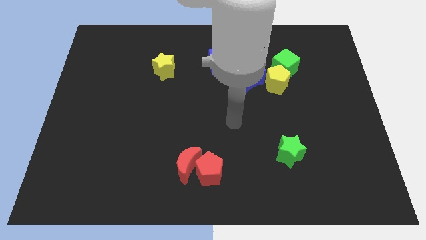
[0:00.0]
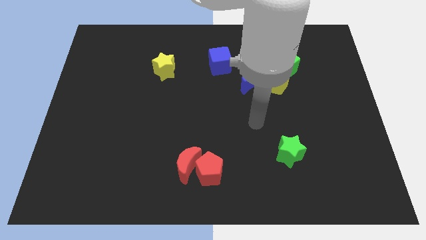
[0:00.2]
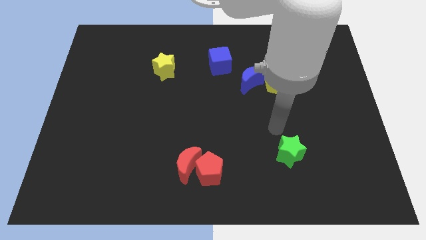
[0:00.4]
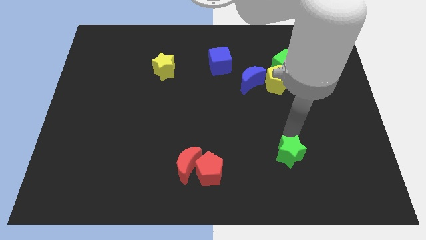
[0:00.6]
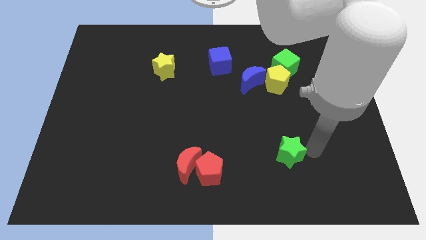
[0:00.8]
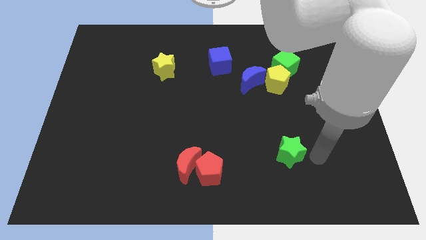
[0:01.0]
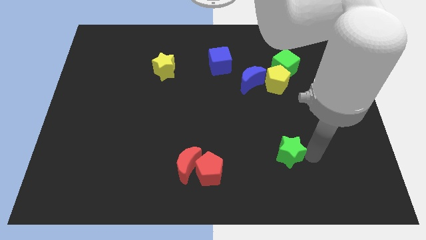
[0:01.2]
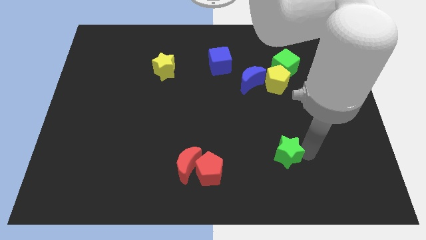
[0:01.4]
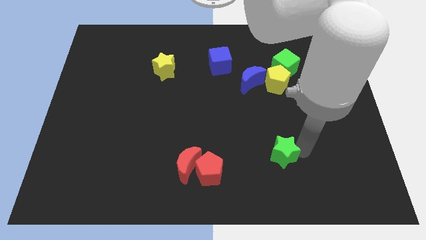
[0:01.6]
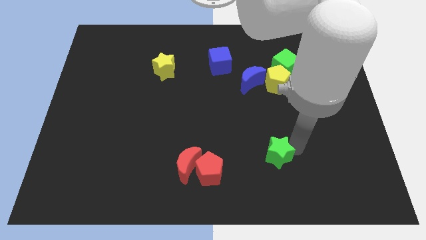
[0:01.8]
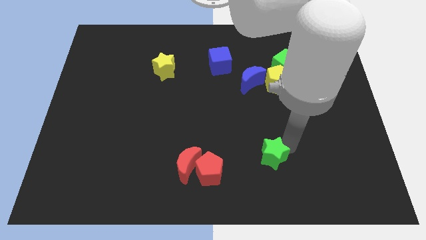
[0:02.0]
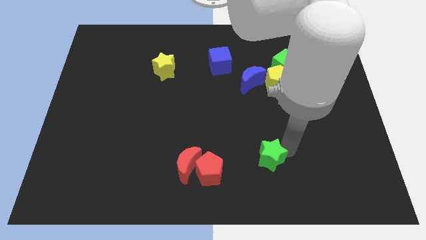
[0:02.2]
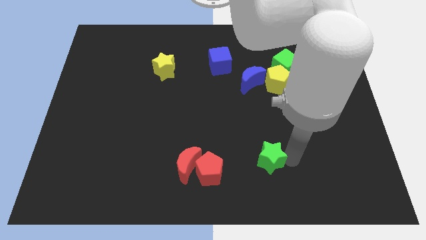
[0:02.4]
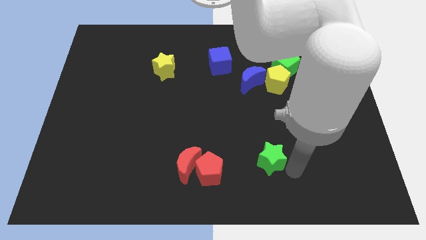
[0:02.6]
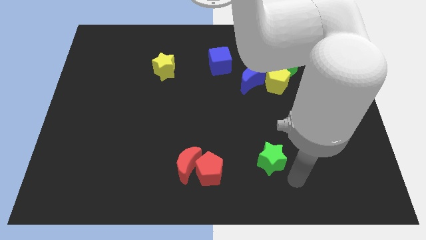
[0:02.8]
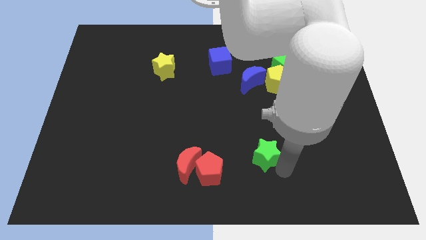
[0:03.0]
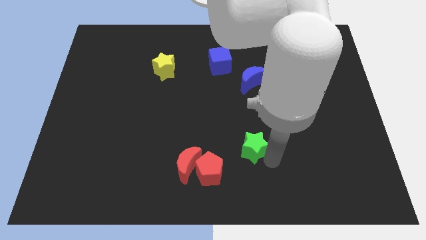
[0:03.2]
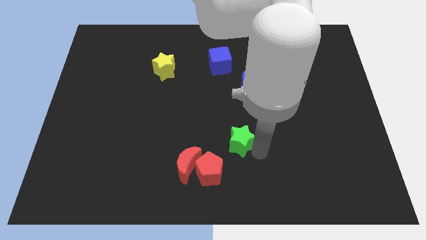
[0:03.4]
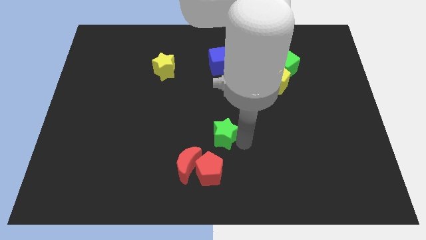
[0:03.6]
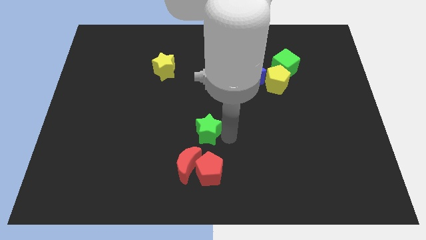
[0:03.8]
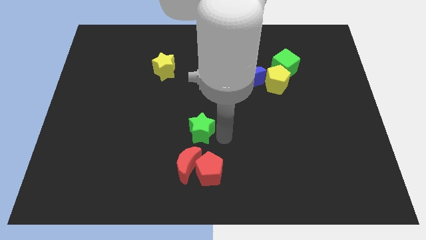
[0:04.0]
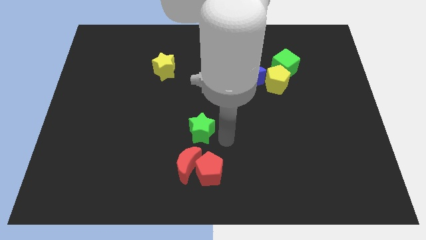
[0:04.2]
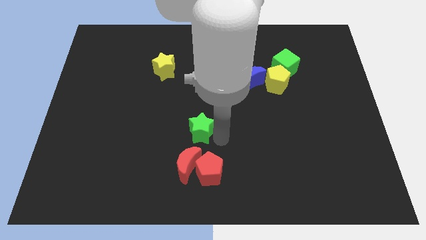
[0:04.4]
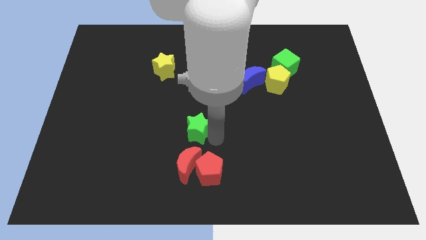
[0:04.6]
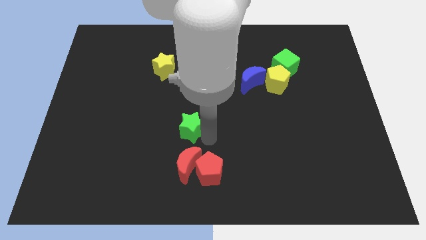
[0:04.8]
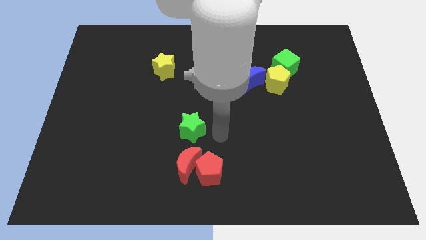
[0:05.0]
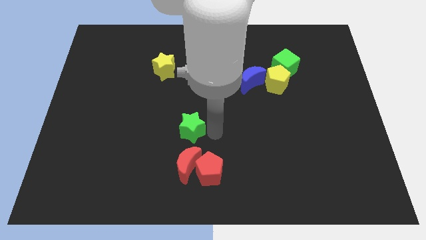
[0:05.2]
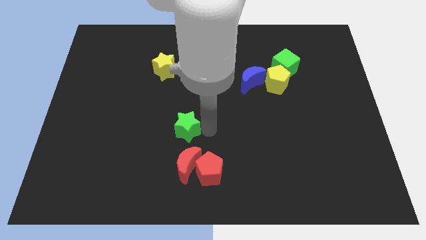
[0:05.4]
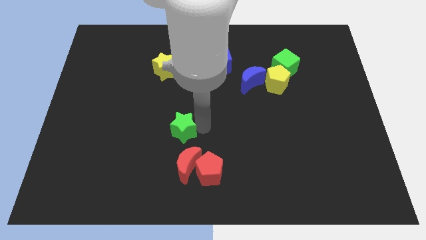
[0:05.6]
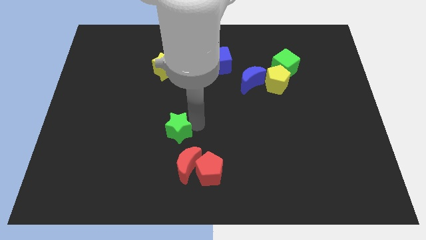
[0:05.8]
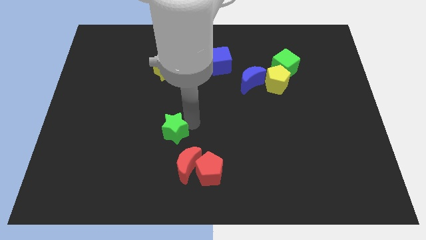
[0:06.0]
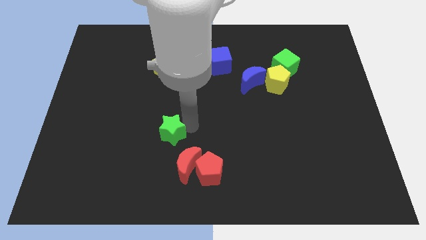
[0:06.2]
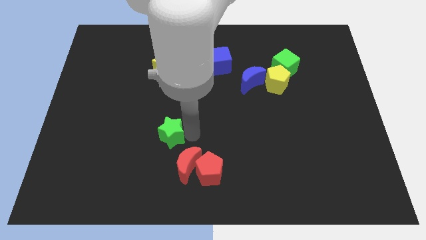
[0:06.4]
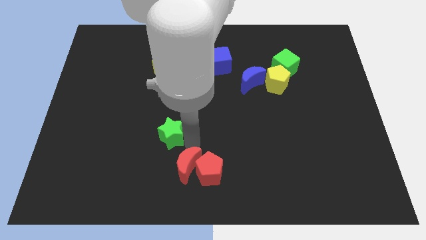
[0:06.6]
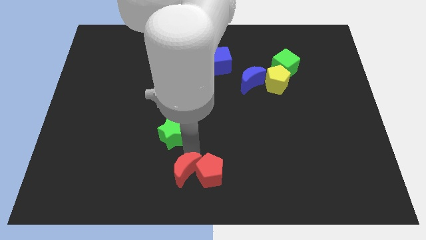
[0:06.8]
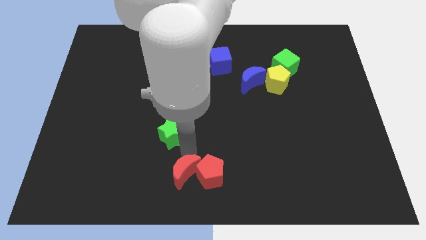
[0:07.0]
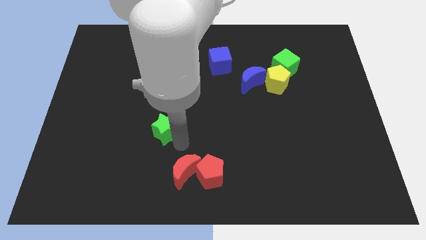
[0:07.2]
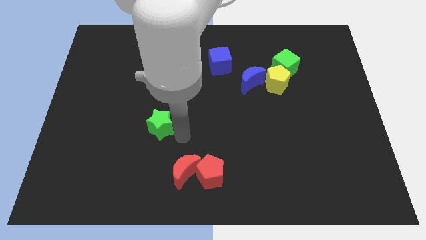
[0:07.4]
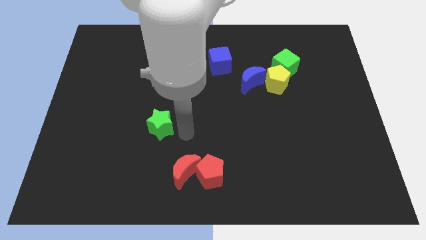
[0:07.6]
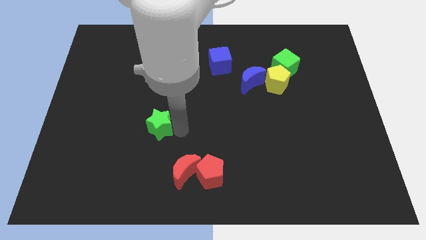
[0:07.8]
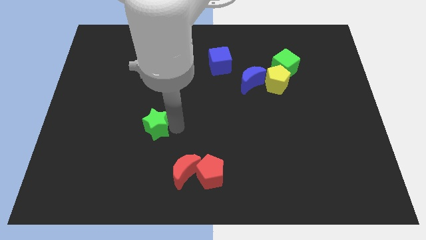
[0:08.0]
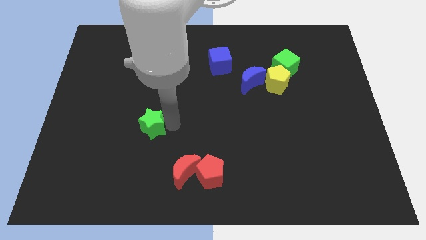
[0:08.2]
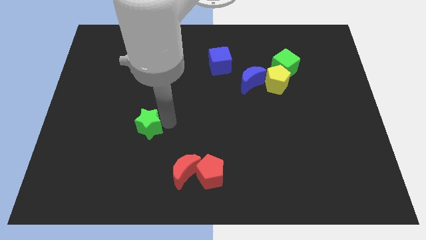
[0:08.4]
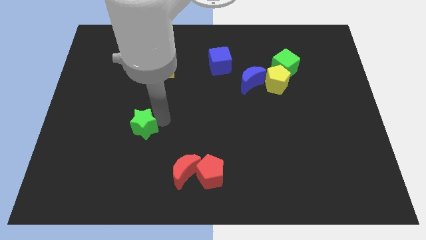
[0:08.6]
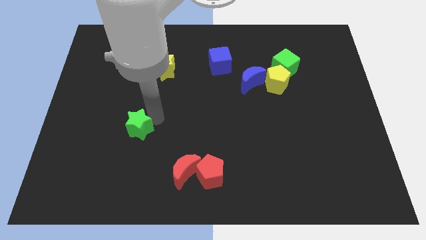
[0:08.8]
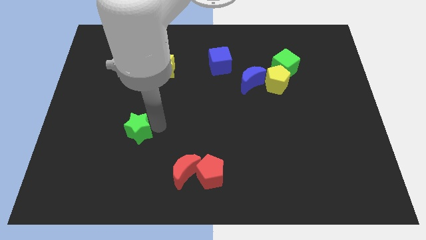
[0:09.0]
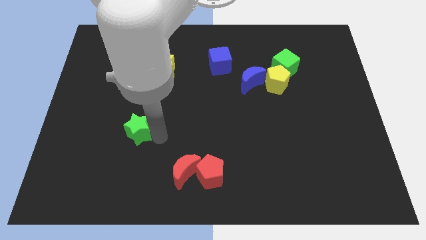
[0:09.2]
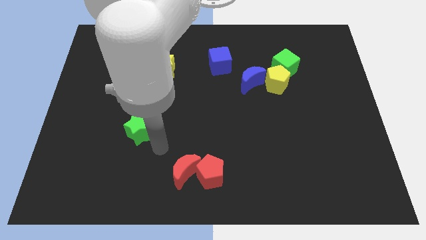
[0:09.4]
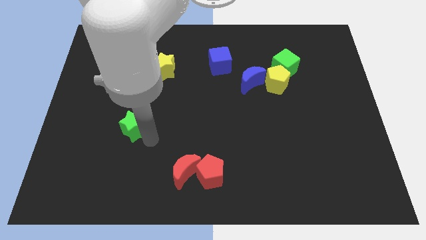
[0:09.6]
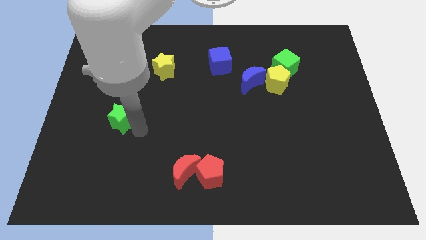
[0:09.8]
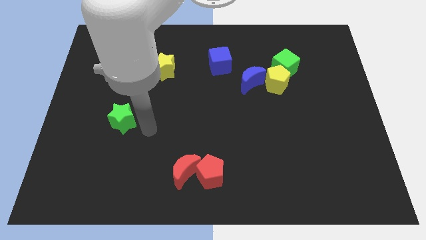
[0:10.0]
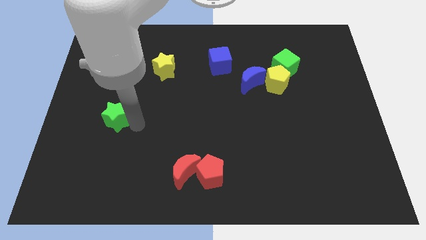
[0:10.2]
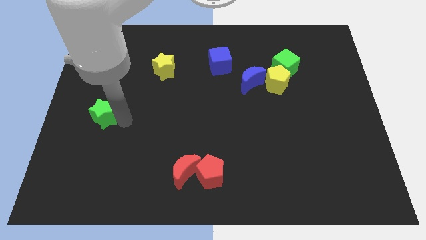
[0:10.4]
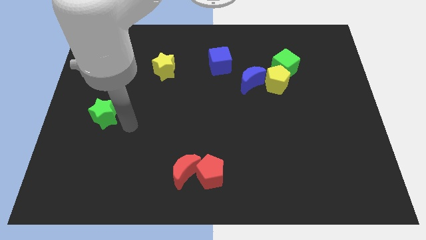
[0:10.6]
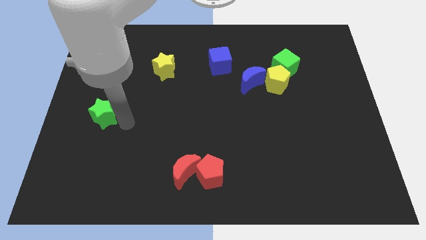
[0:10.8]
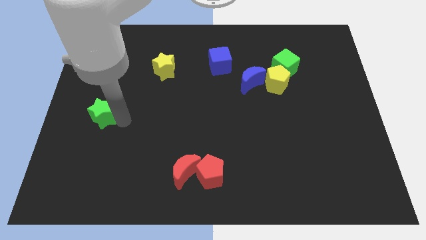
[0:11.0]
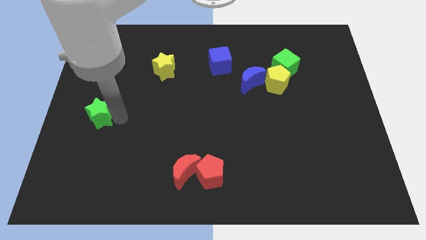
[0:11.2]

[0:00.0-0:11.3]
move the green star to the left side of the board
